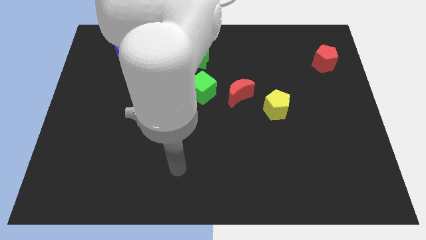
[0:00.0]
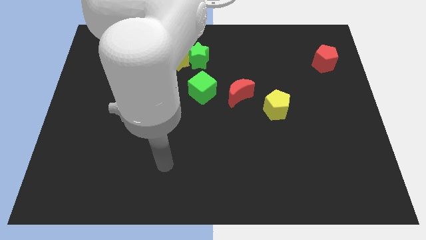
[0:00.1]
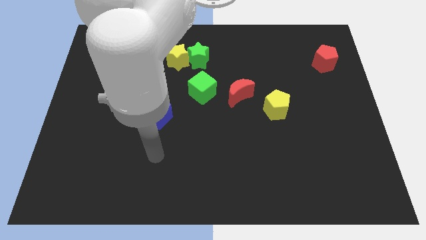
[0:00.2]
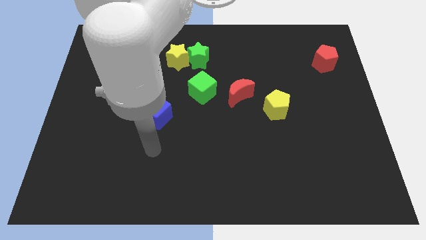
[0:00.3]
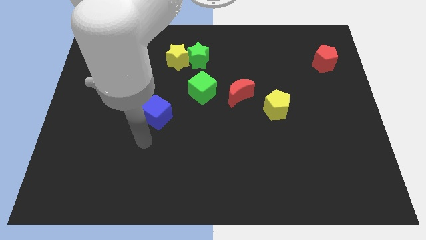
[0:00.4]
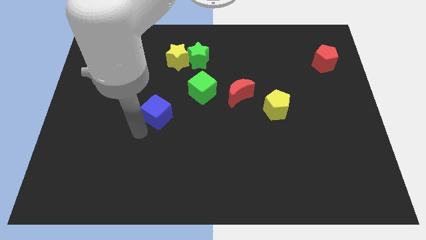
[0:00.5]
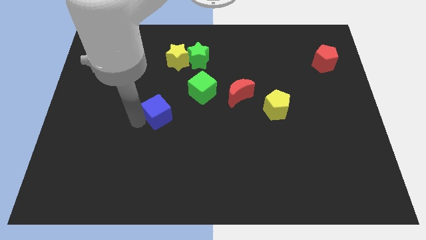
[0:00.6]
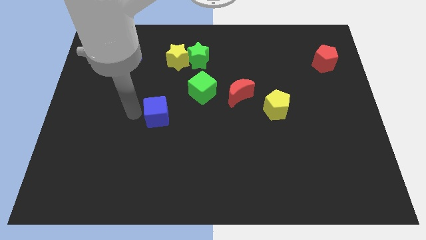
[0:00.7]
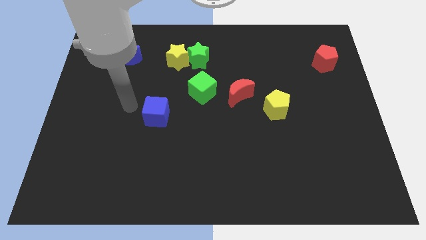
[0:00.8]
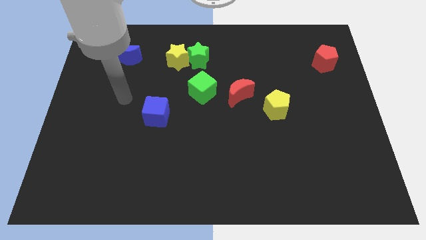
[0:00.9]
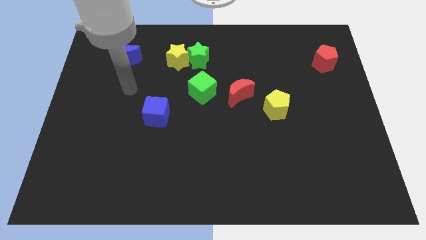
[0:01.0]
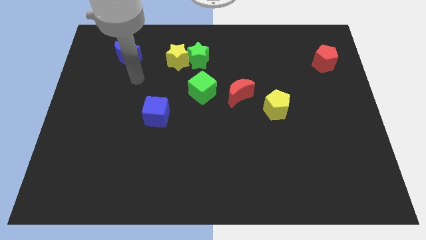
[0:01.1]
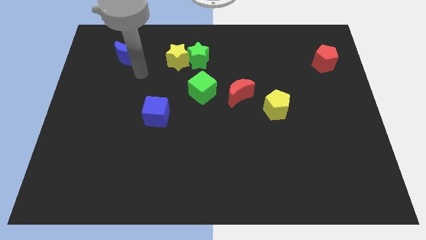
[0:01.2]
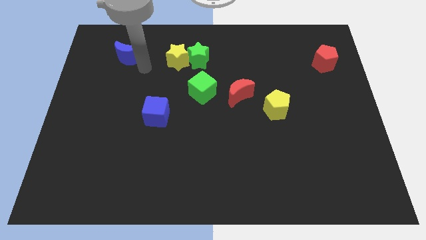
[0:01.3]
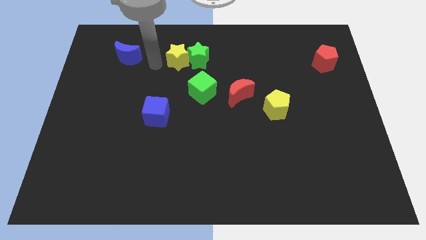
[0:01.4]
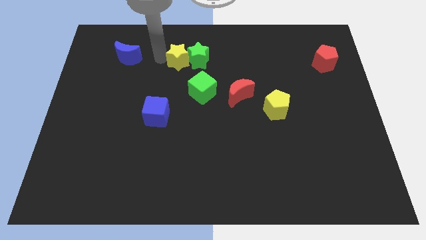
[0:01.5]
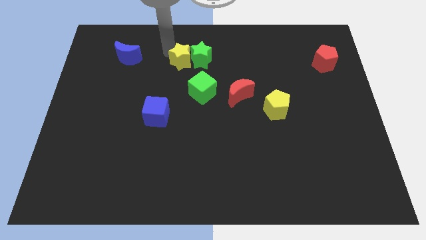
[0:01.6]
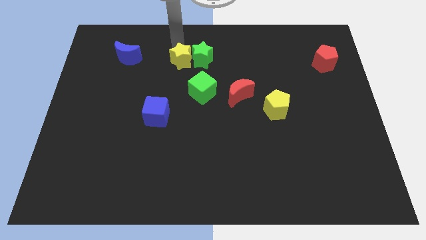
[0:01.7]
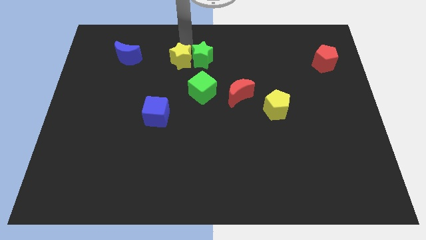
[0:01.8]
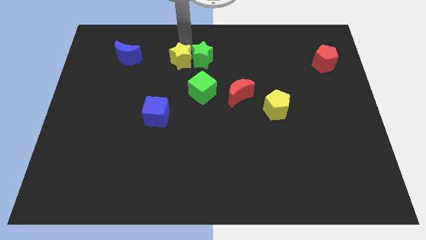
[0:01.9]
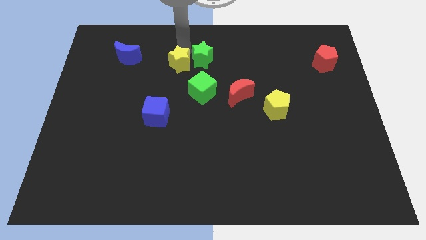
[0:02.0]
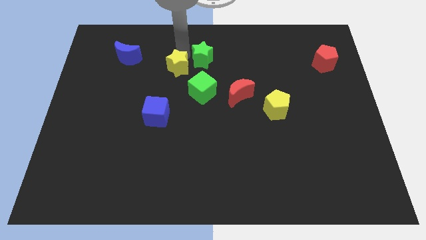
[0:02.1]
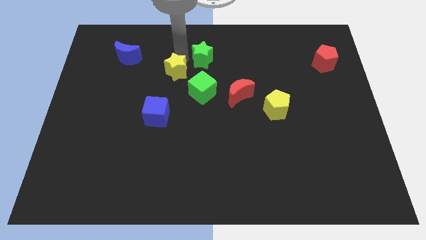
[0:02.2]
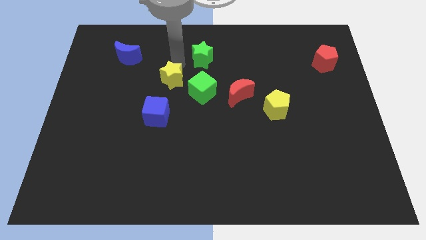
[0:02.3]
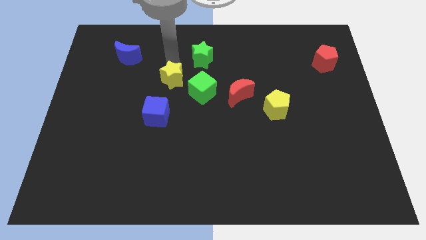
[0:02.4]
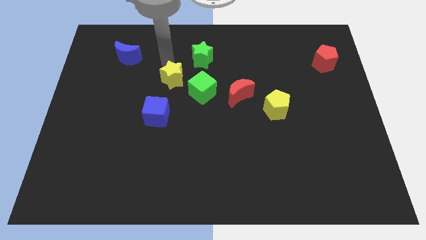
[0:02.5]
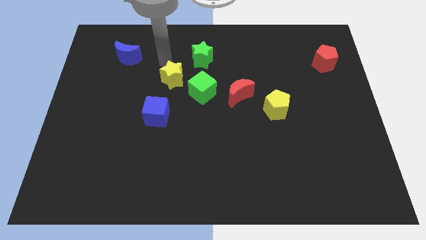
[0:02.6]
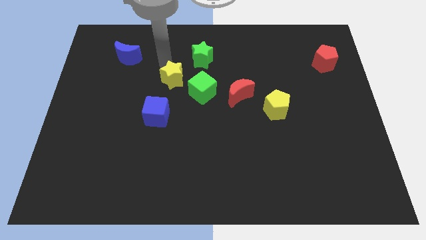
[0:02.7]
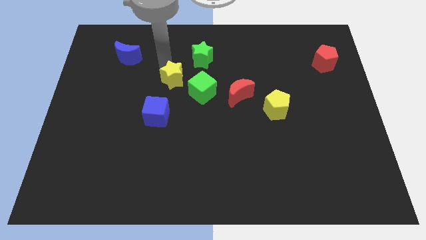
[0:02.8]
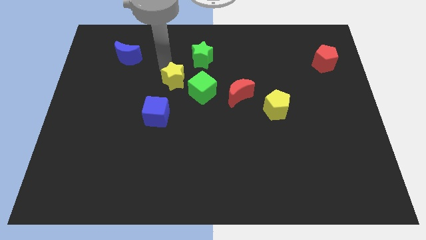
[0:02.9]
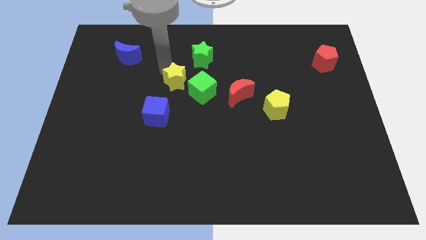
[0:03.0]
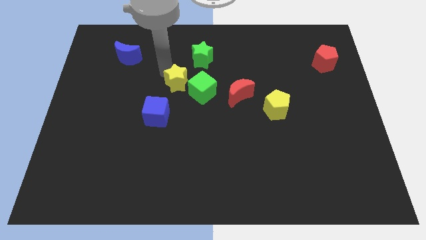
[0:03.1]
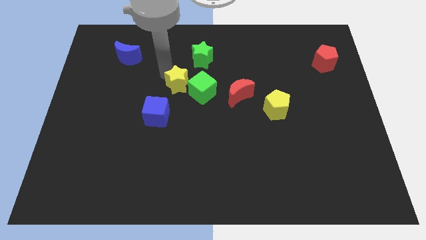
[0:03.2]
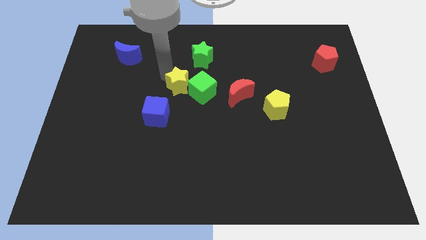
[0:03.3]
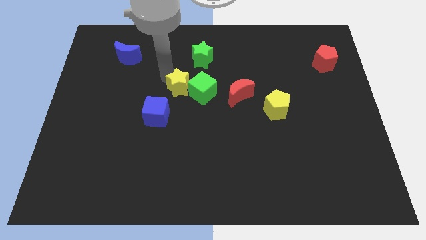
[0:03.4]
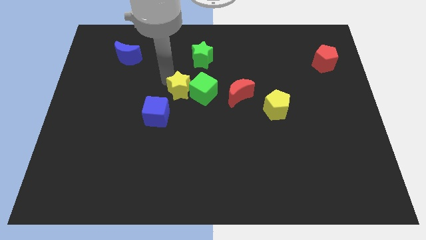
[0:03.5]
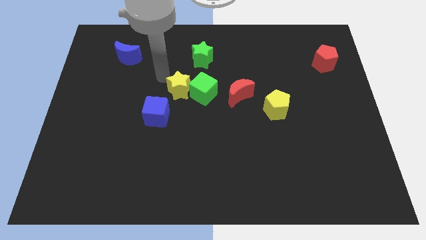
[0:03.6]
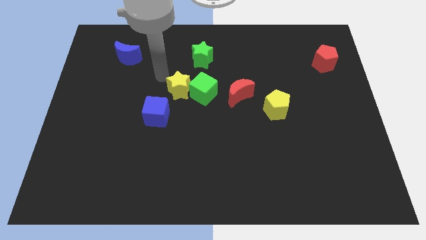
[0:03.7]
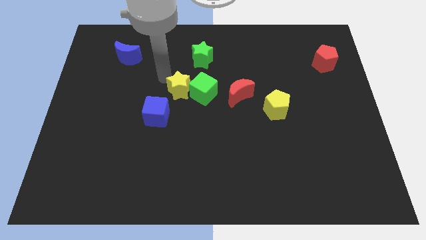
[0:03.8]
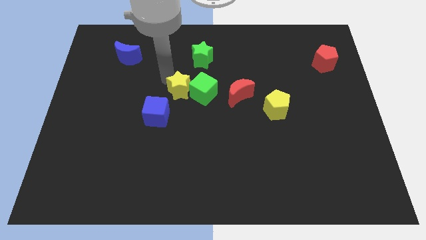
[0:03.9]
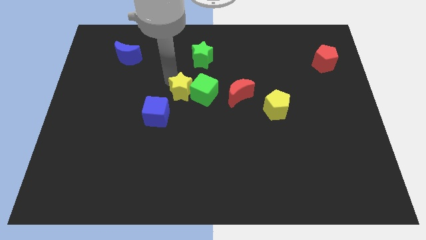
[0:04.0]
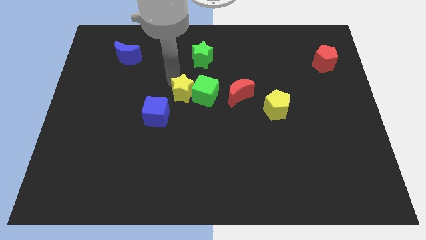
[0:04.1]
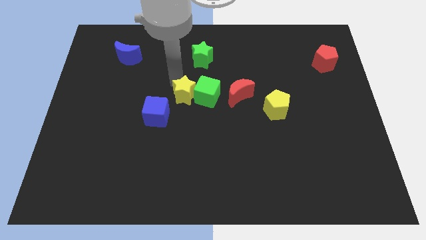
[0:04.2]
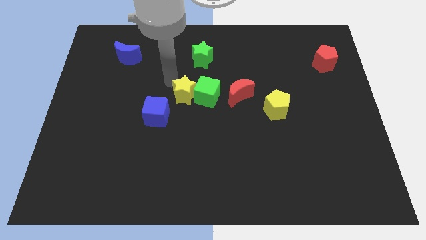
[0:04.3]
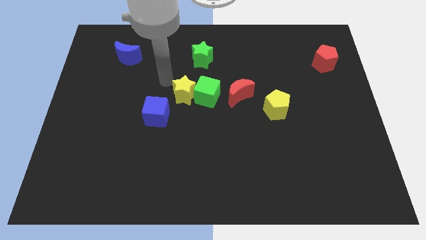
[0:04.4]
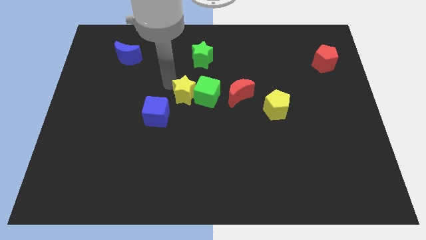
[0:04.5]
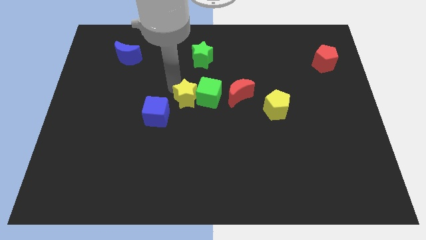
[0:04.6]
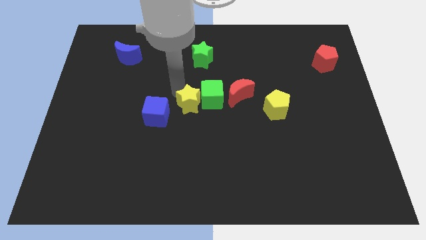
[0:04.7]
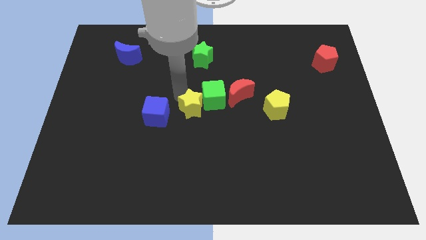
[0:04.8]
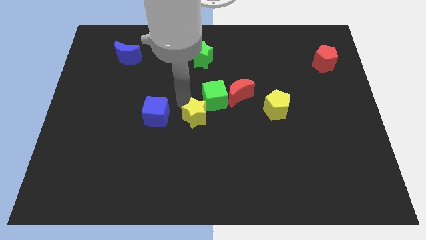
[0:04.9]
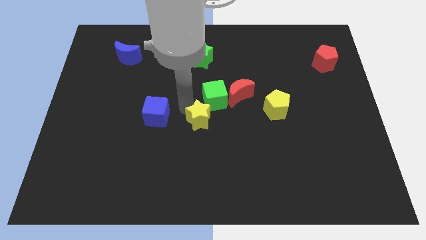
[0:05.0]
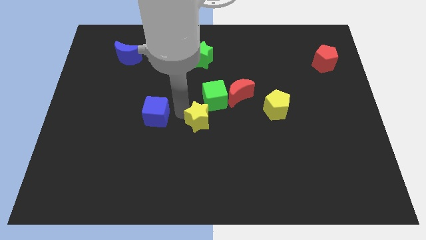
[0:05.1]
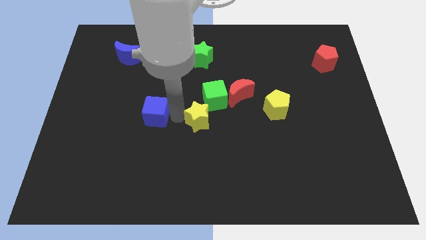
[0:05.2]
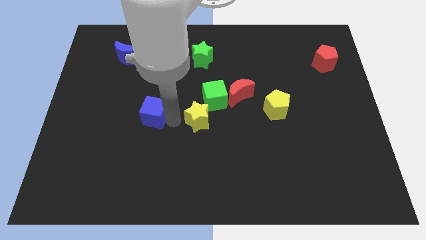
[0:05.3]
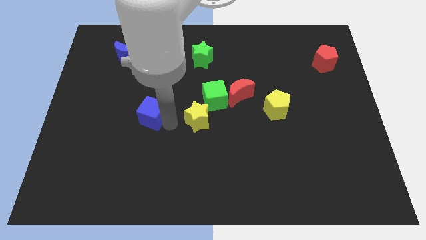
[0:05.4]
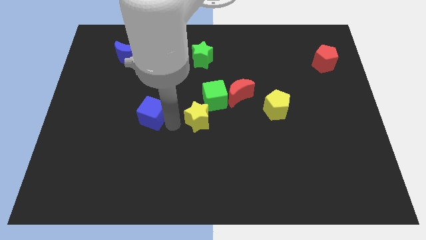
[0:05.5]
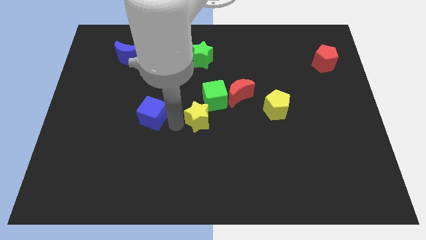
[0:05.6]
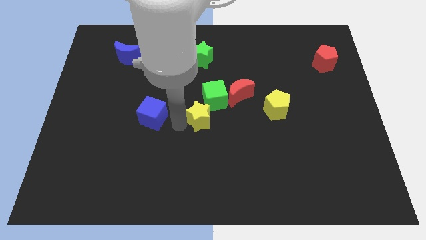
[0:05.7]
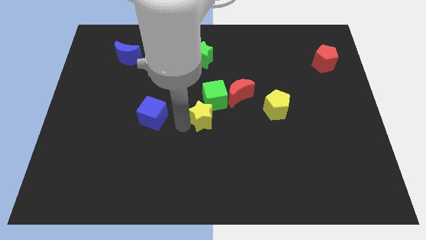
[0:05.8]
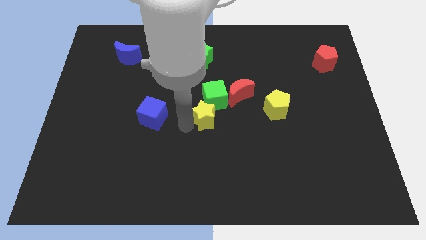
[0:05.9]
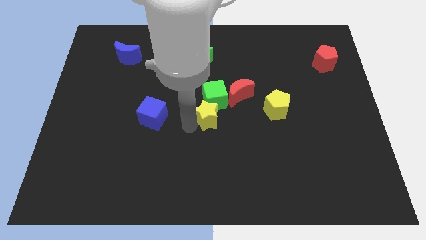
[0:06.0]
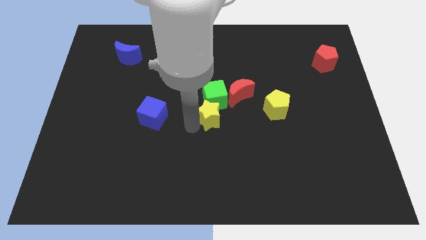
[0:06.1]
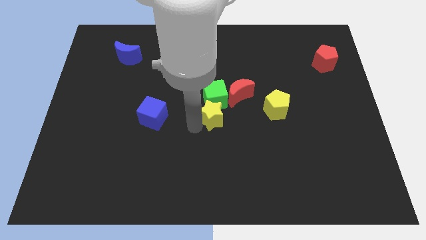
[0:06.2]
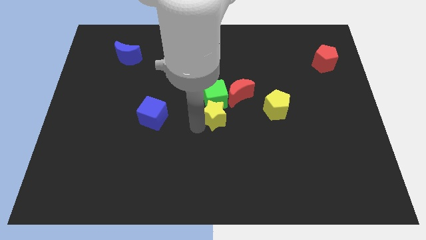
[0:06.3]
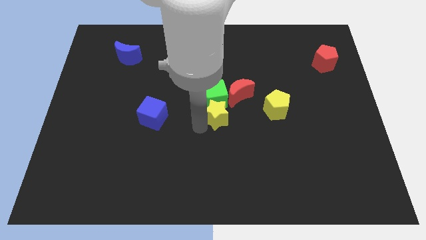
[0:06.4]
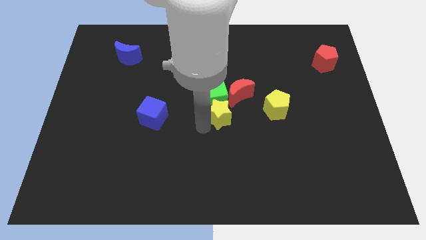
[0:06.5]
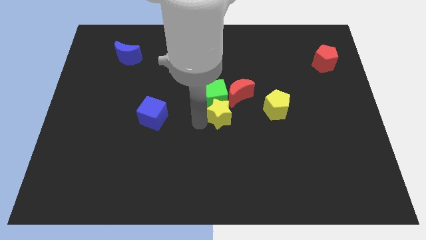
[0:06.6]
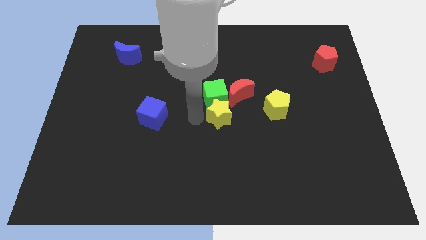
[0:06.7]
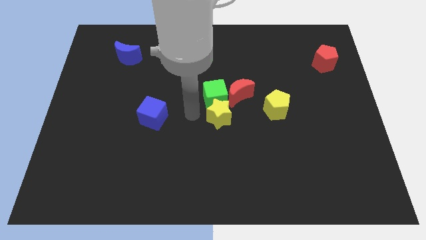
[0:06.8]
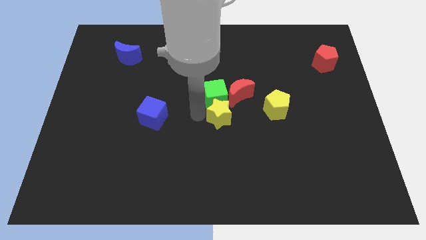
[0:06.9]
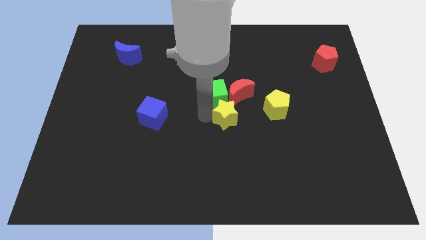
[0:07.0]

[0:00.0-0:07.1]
push the yellow star down and then to the right

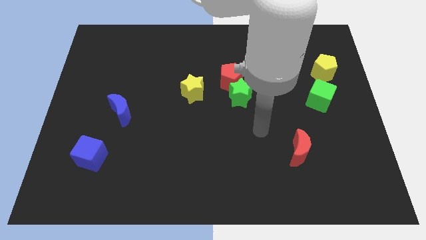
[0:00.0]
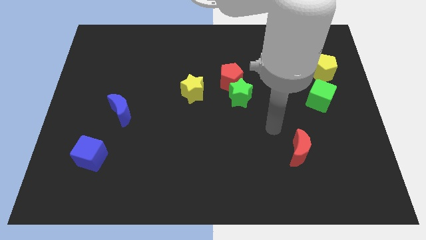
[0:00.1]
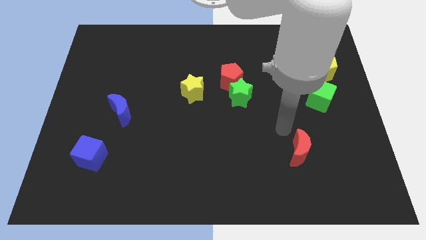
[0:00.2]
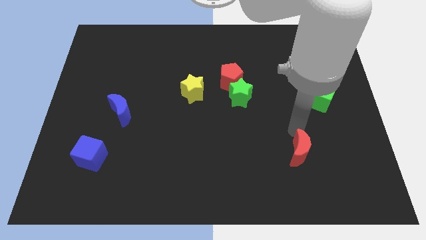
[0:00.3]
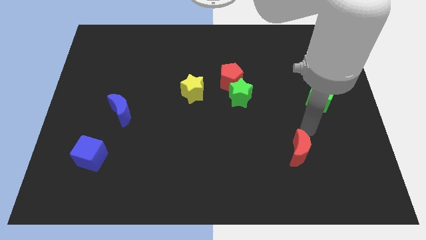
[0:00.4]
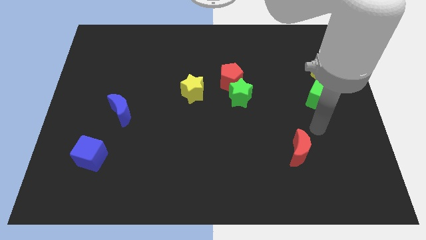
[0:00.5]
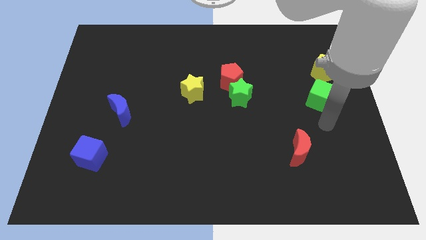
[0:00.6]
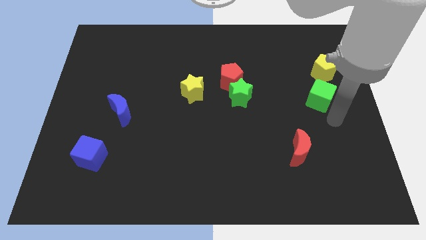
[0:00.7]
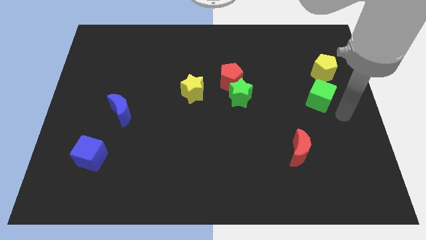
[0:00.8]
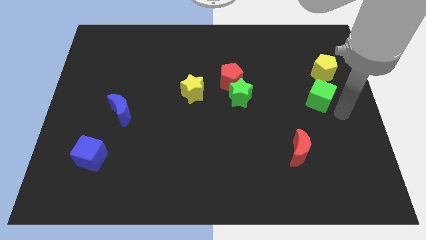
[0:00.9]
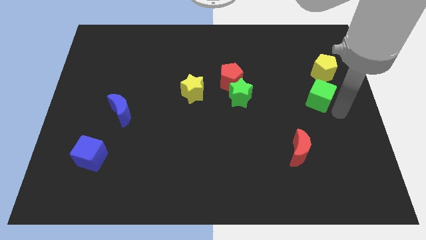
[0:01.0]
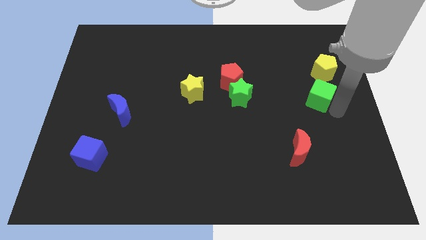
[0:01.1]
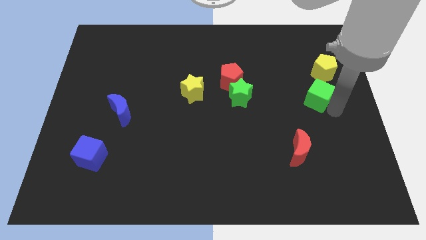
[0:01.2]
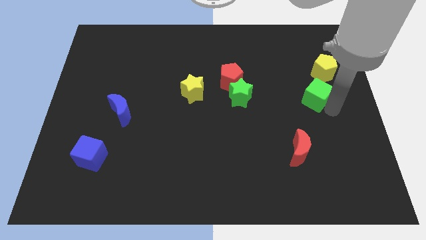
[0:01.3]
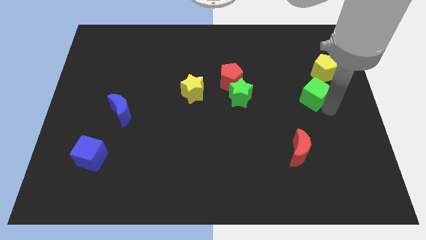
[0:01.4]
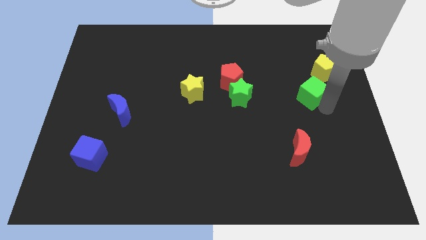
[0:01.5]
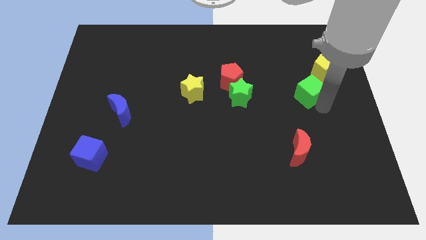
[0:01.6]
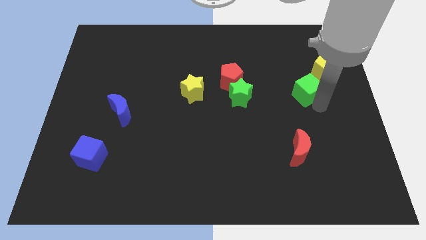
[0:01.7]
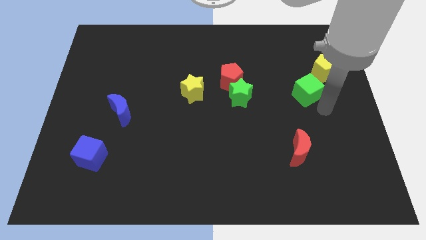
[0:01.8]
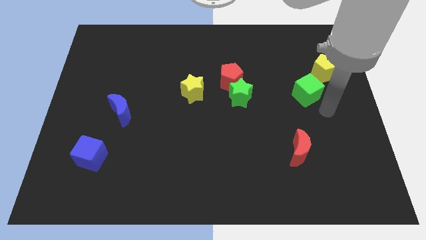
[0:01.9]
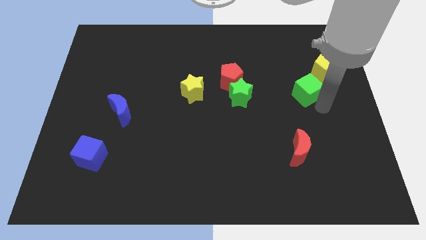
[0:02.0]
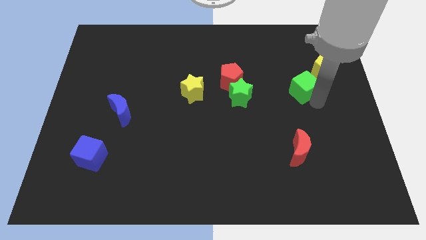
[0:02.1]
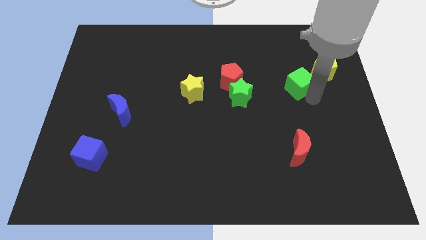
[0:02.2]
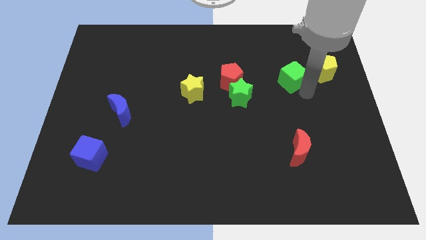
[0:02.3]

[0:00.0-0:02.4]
slide the green cube somewhat up and left diagonally
